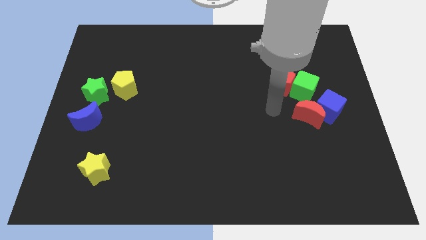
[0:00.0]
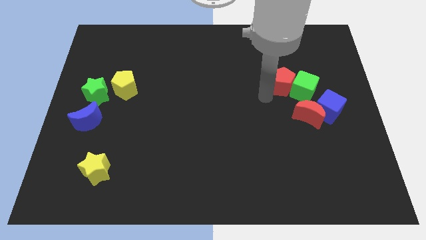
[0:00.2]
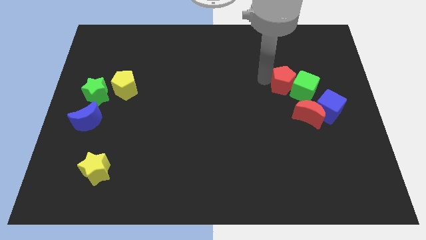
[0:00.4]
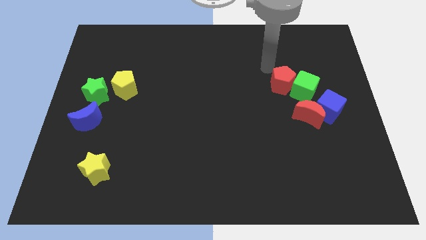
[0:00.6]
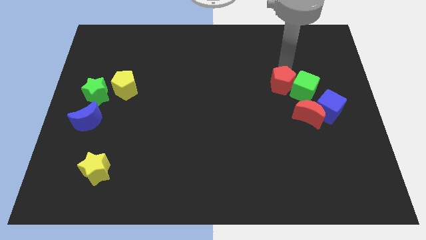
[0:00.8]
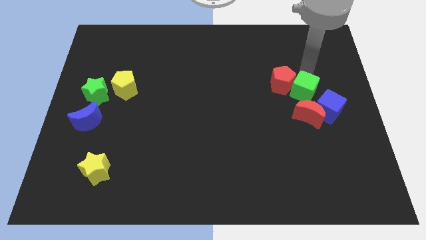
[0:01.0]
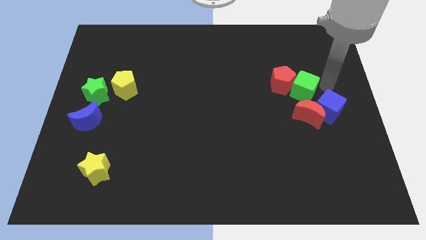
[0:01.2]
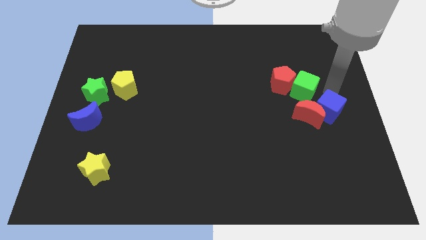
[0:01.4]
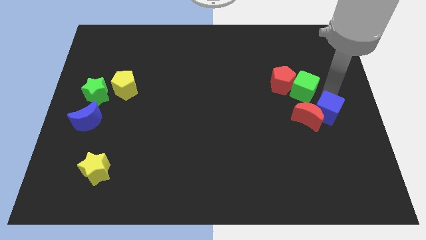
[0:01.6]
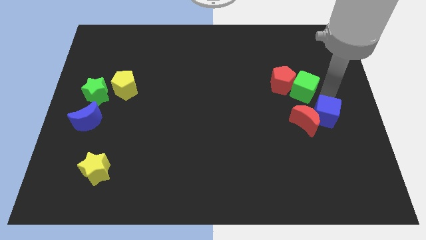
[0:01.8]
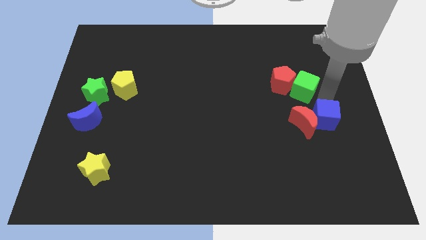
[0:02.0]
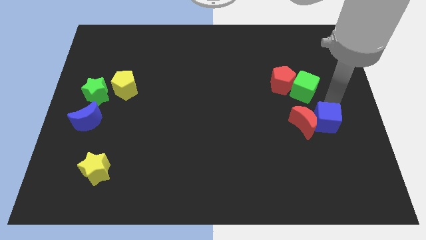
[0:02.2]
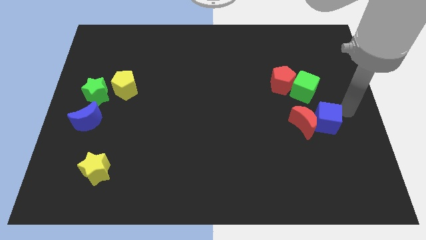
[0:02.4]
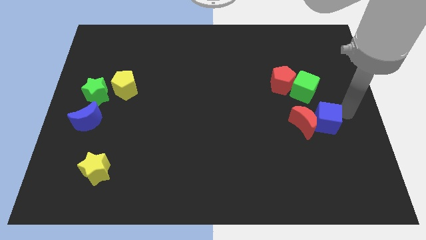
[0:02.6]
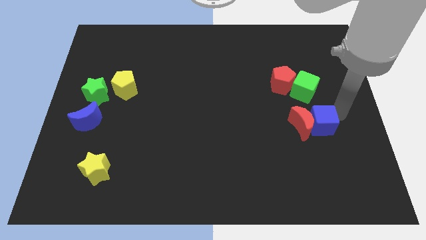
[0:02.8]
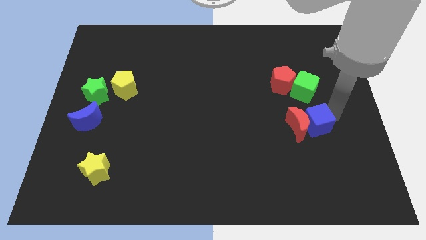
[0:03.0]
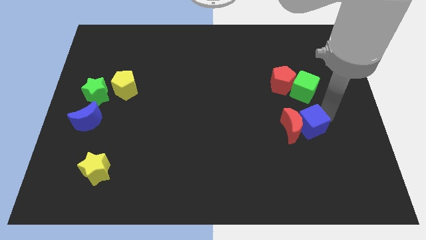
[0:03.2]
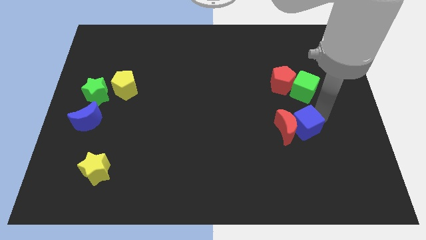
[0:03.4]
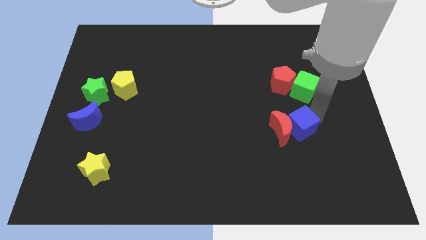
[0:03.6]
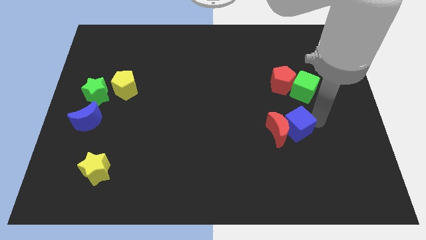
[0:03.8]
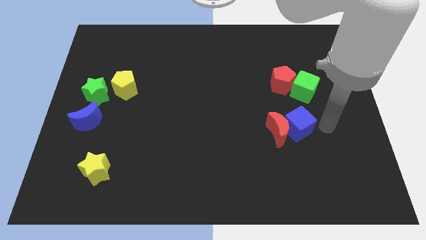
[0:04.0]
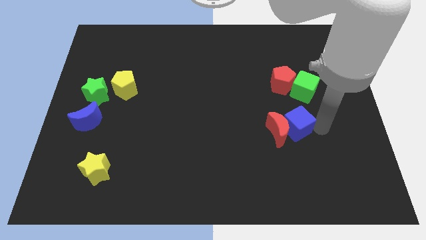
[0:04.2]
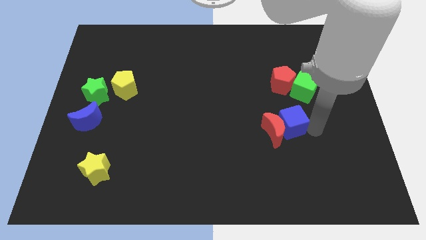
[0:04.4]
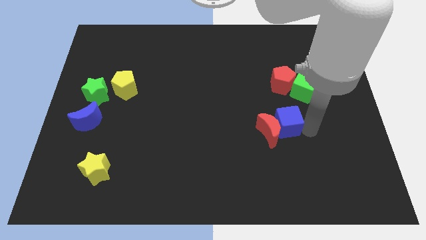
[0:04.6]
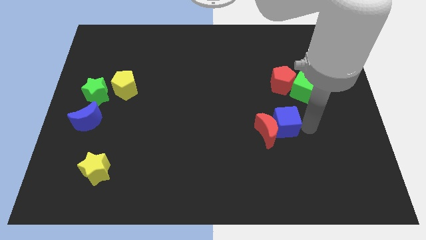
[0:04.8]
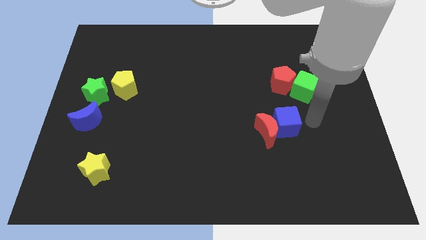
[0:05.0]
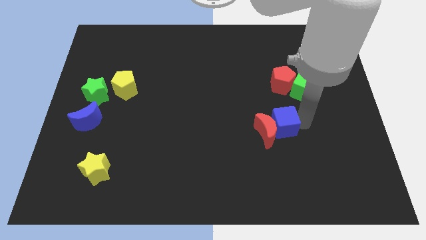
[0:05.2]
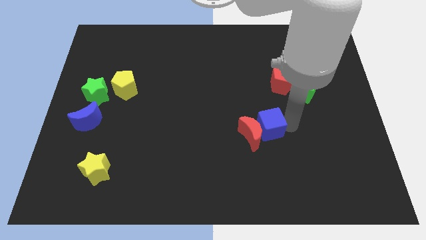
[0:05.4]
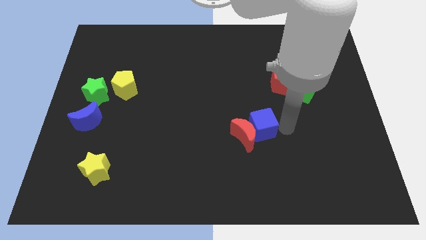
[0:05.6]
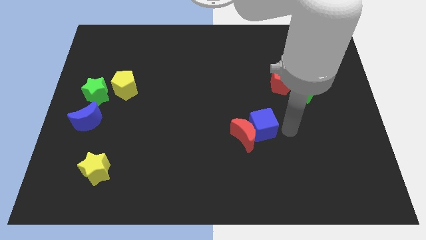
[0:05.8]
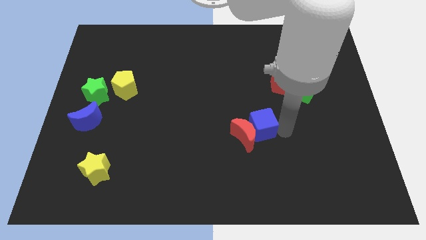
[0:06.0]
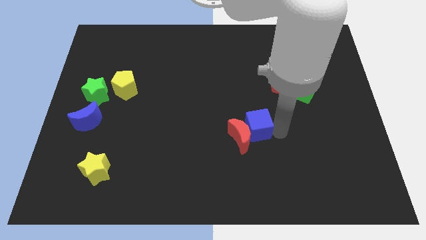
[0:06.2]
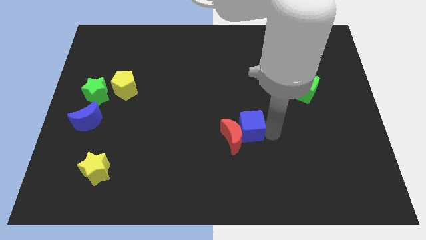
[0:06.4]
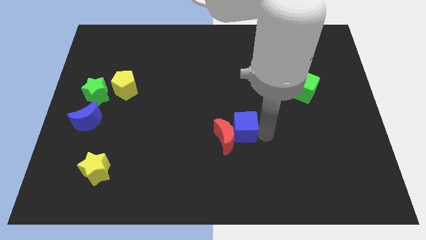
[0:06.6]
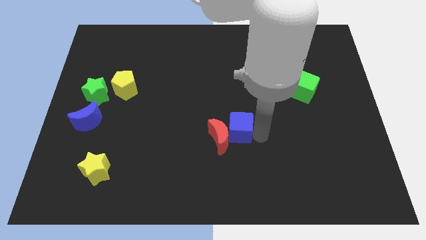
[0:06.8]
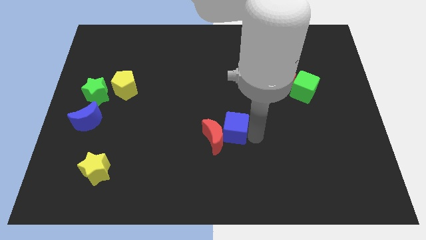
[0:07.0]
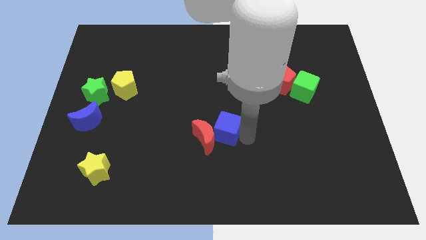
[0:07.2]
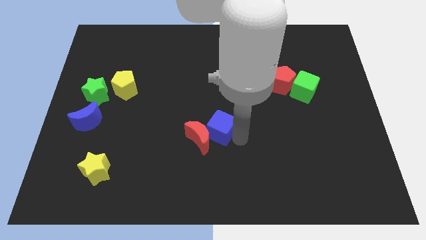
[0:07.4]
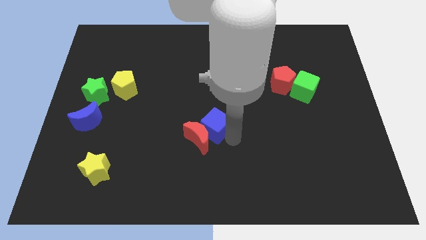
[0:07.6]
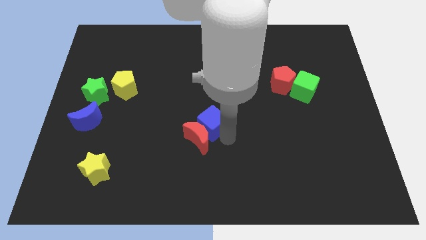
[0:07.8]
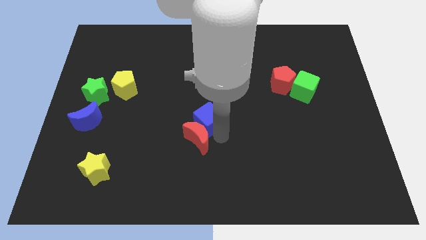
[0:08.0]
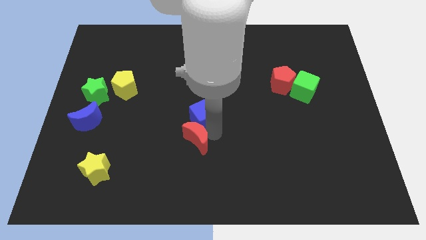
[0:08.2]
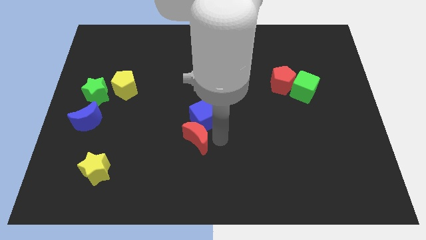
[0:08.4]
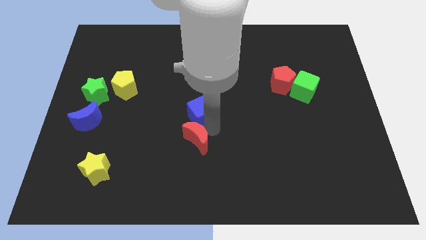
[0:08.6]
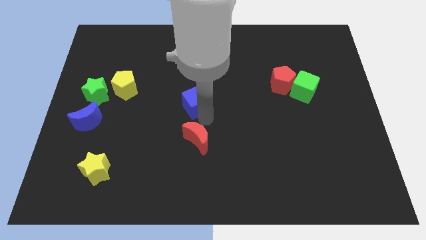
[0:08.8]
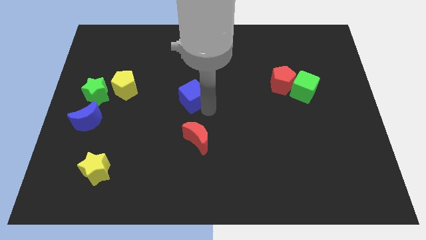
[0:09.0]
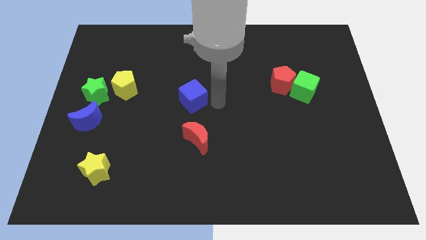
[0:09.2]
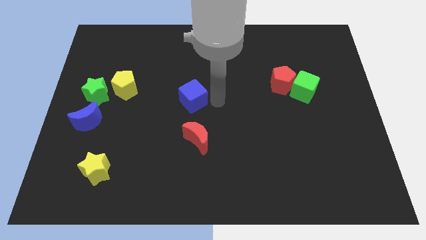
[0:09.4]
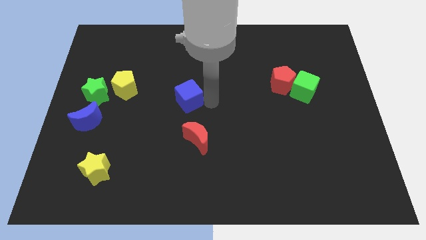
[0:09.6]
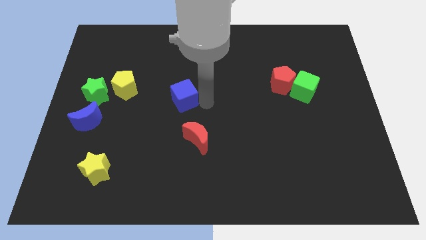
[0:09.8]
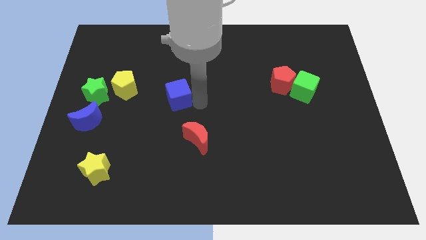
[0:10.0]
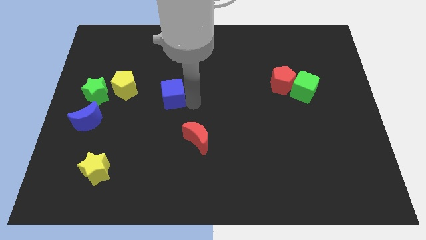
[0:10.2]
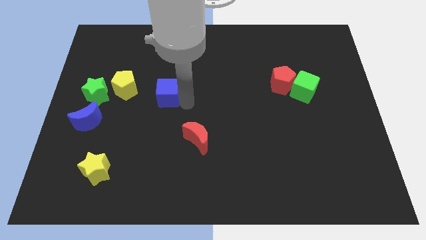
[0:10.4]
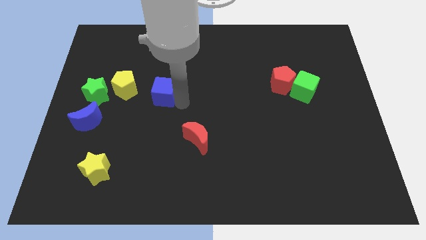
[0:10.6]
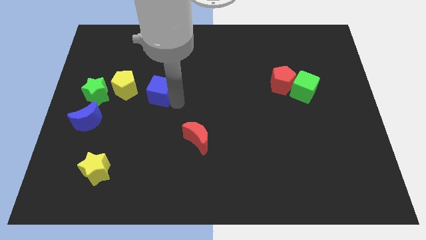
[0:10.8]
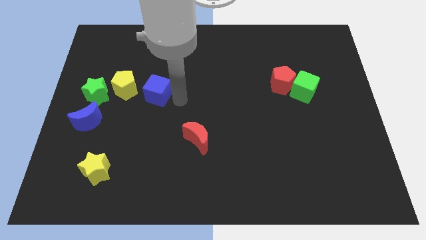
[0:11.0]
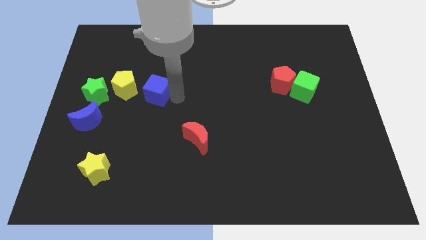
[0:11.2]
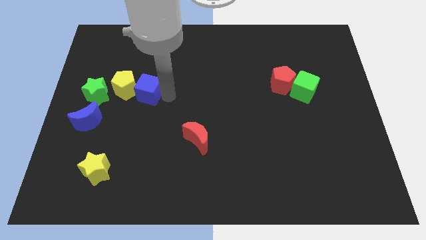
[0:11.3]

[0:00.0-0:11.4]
push the blue cube to the yellow pentagon
